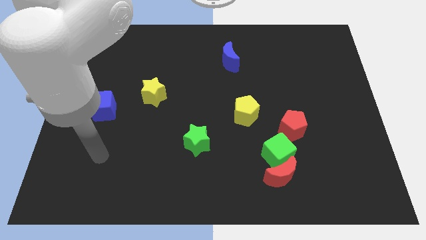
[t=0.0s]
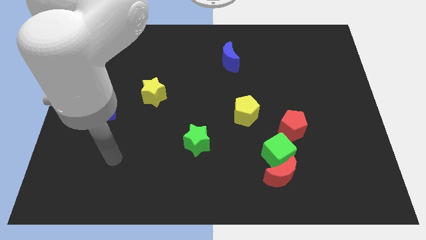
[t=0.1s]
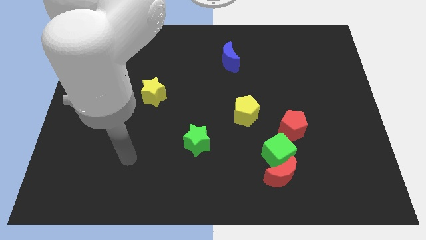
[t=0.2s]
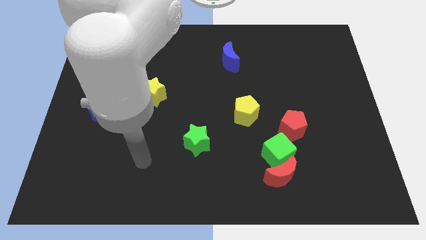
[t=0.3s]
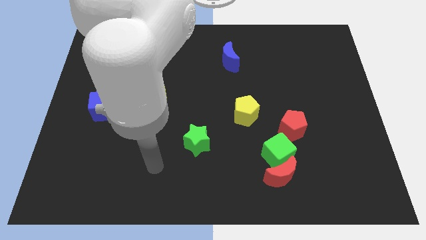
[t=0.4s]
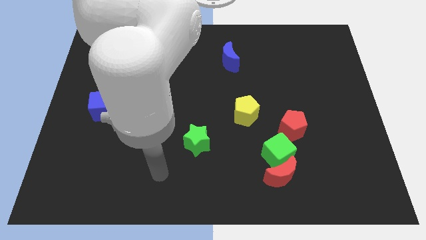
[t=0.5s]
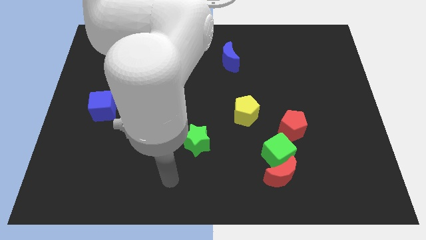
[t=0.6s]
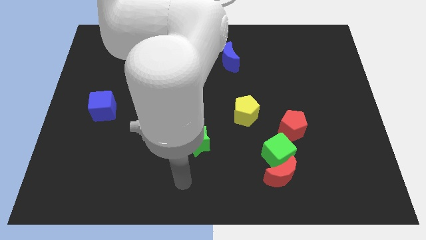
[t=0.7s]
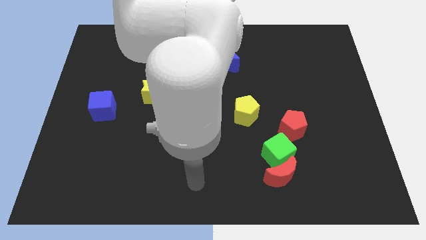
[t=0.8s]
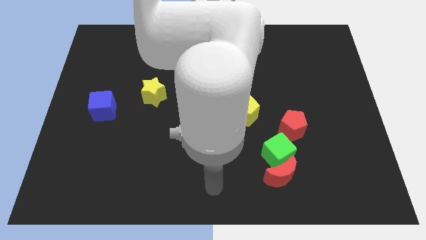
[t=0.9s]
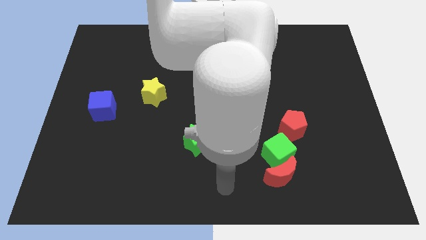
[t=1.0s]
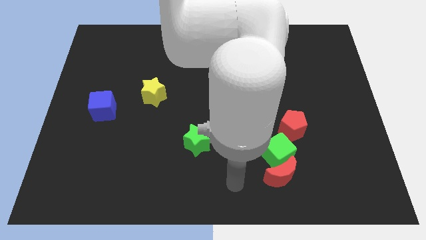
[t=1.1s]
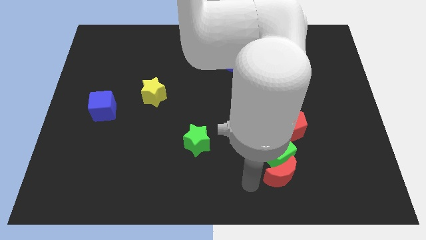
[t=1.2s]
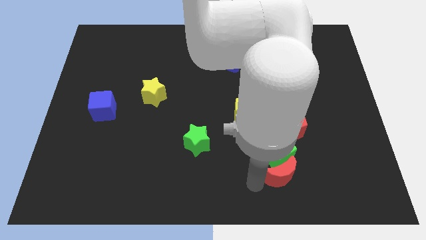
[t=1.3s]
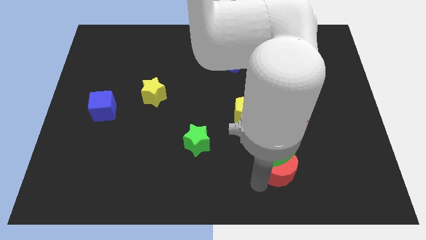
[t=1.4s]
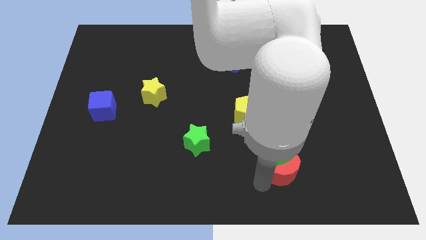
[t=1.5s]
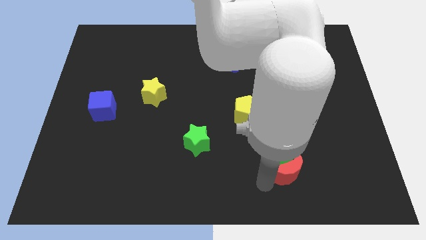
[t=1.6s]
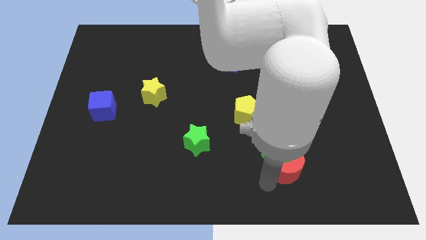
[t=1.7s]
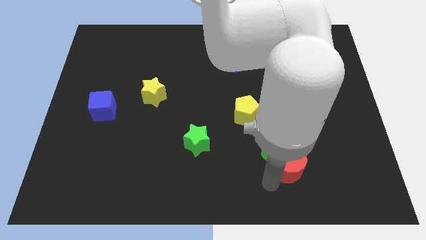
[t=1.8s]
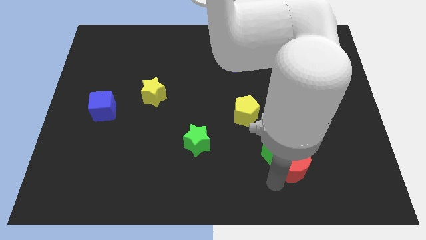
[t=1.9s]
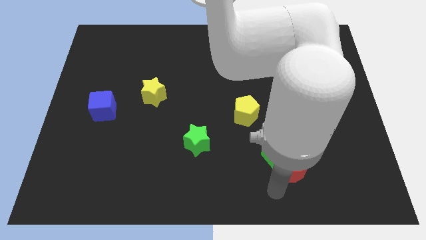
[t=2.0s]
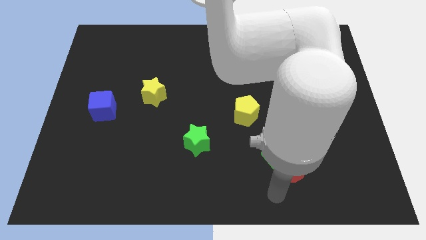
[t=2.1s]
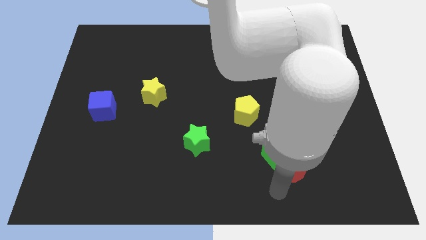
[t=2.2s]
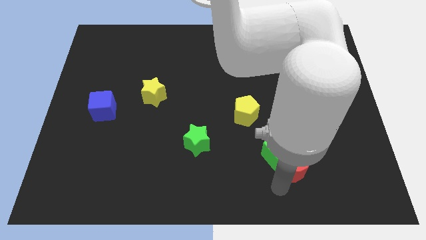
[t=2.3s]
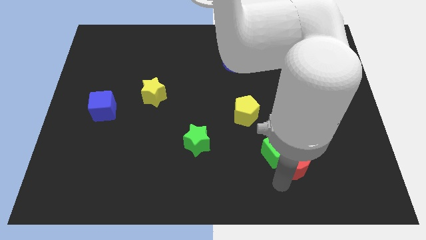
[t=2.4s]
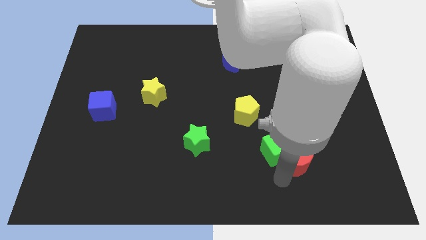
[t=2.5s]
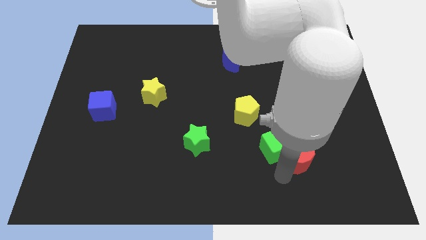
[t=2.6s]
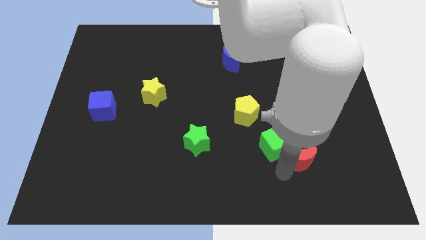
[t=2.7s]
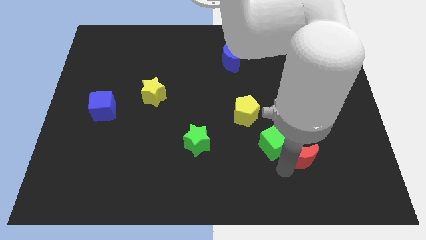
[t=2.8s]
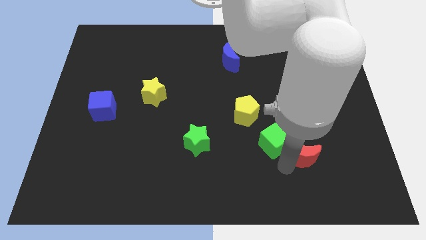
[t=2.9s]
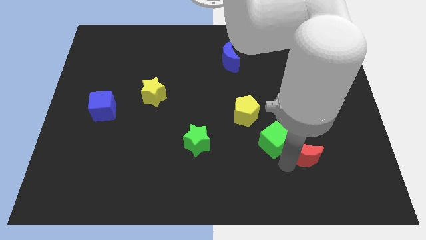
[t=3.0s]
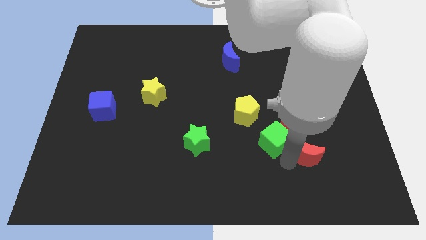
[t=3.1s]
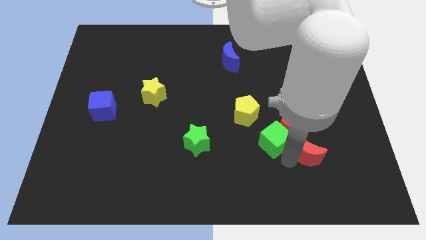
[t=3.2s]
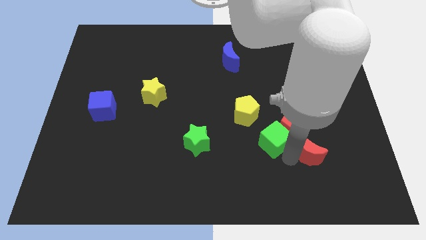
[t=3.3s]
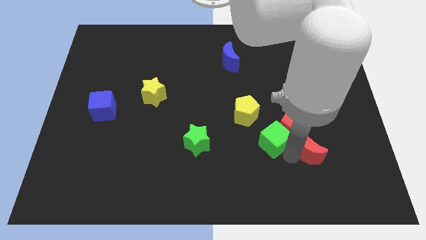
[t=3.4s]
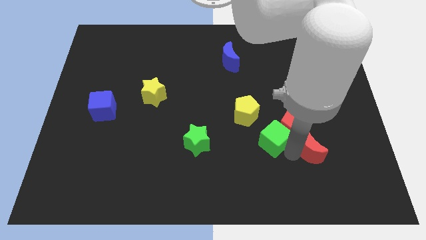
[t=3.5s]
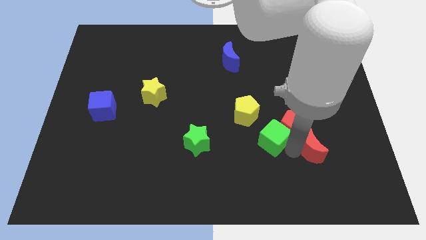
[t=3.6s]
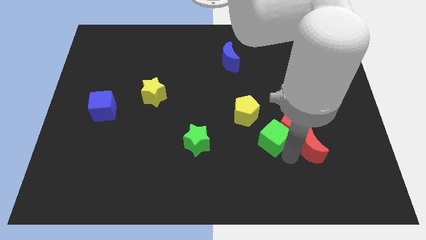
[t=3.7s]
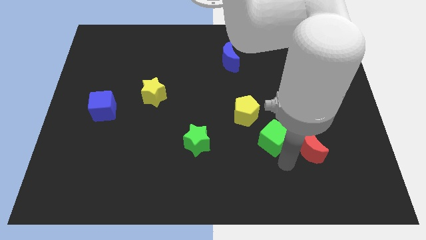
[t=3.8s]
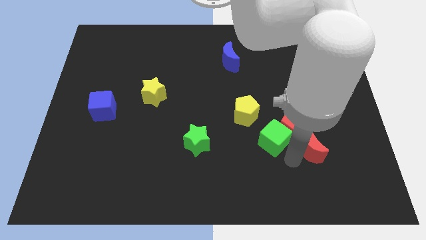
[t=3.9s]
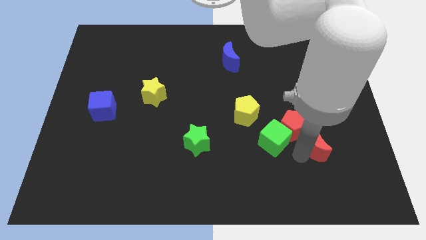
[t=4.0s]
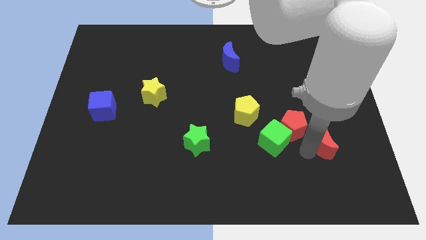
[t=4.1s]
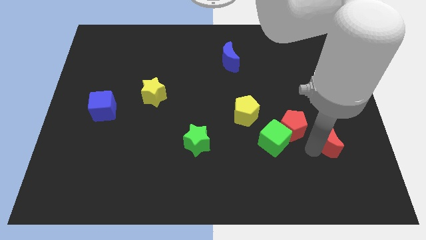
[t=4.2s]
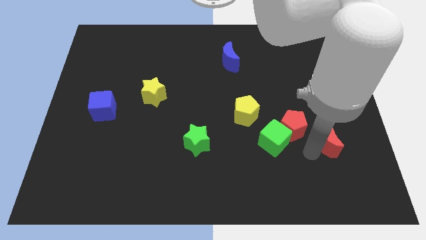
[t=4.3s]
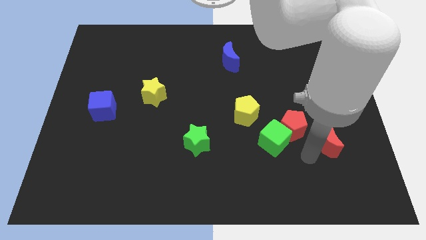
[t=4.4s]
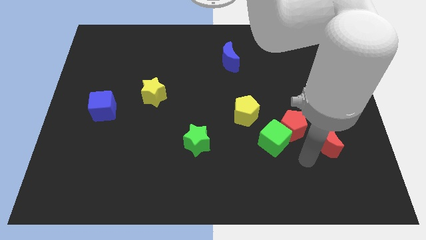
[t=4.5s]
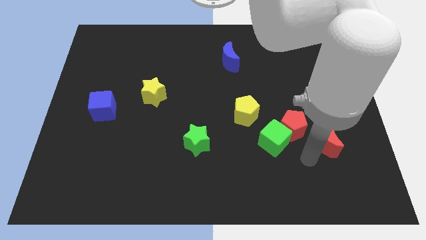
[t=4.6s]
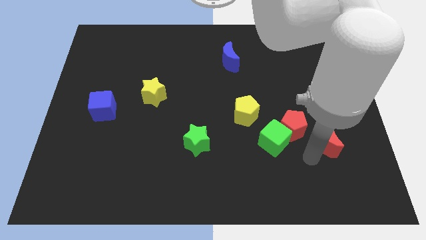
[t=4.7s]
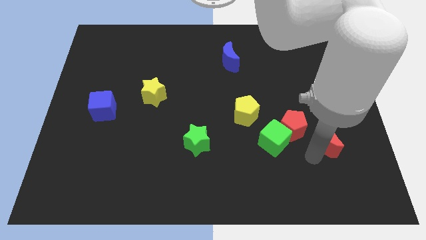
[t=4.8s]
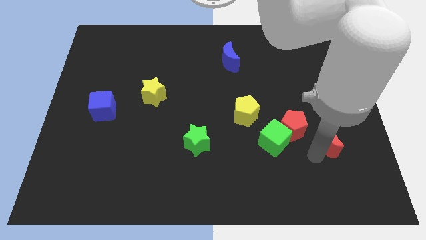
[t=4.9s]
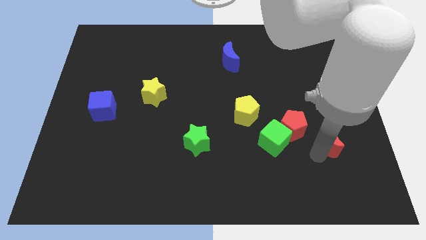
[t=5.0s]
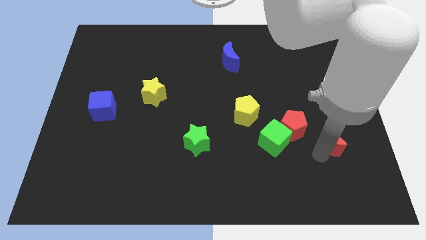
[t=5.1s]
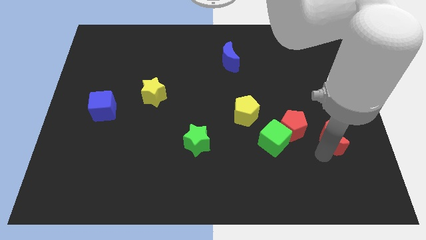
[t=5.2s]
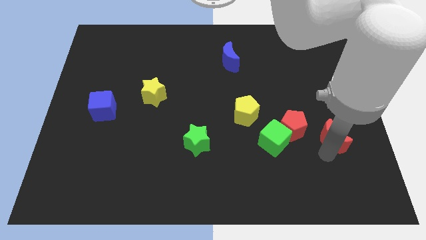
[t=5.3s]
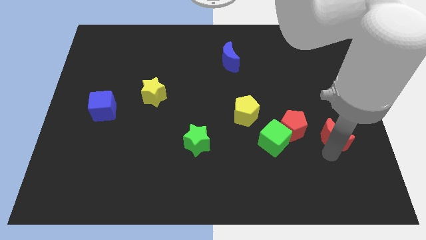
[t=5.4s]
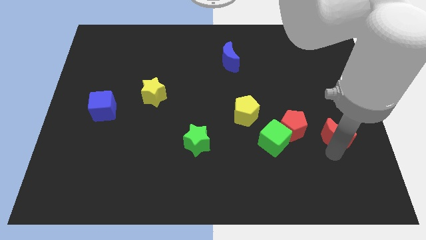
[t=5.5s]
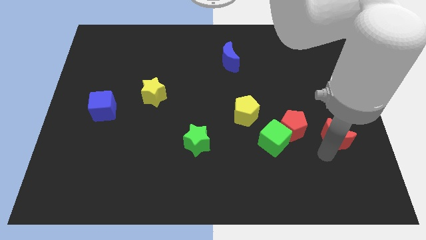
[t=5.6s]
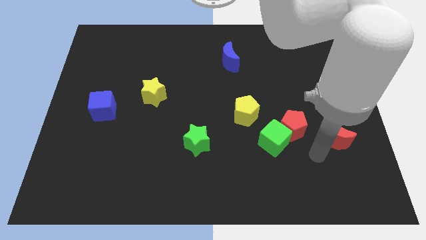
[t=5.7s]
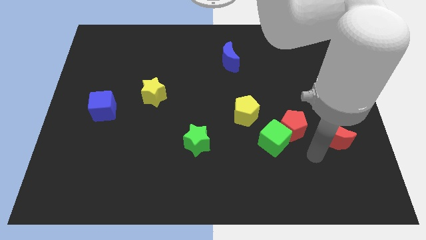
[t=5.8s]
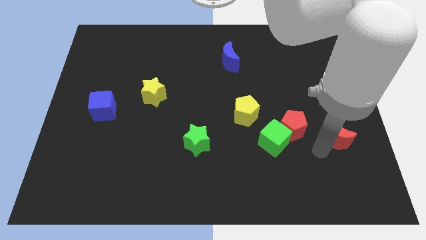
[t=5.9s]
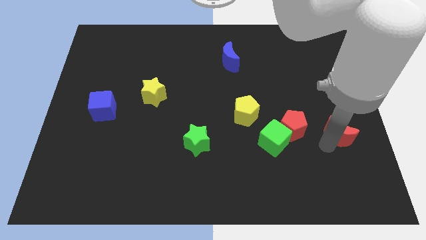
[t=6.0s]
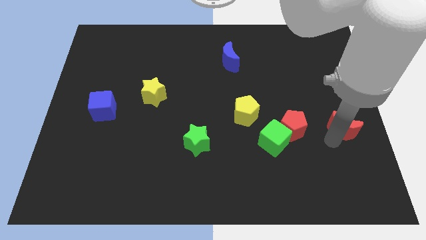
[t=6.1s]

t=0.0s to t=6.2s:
put the red moon to the right side of the board

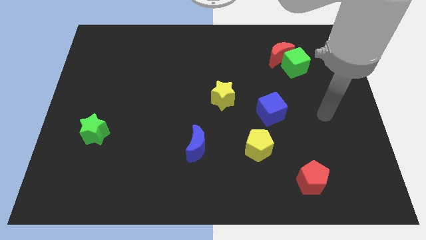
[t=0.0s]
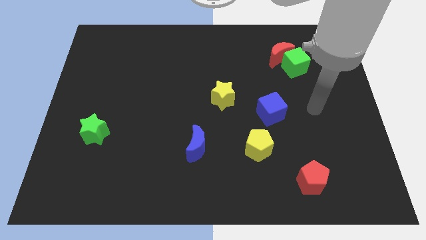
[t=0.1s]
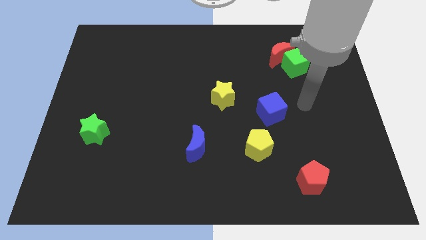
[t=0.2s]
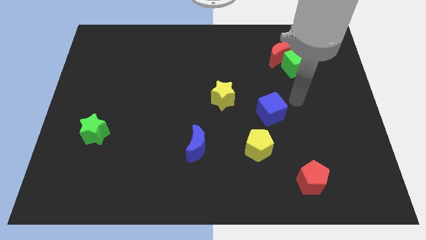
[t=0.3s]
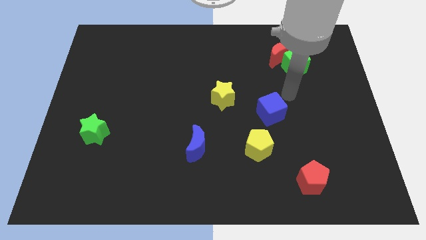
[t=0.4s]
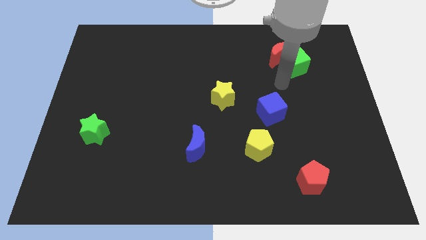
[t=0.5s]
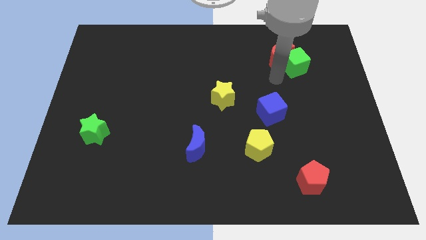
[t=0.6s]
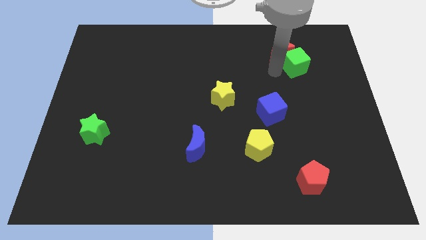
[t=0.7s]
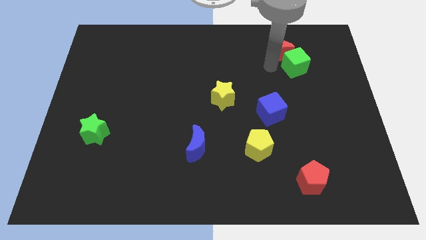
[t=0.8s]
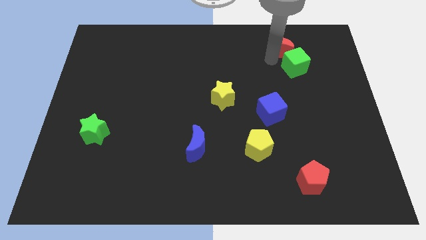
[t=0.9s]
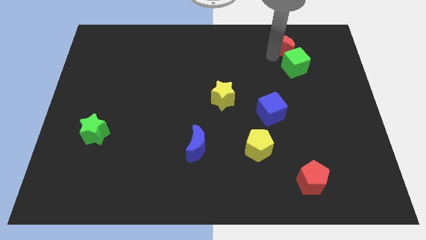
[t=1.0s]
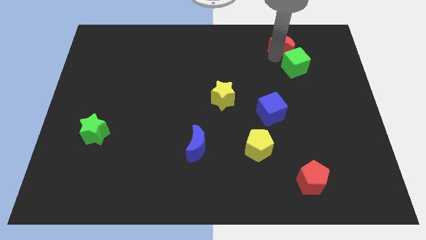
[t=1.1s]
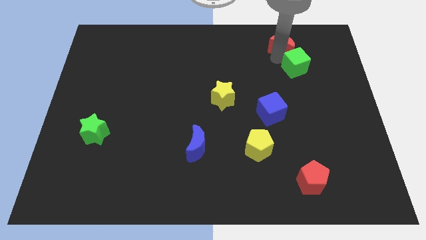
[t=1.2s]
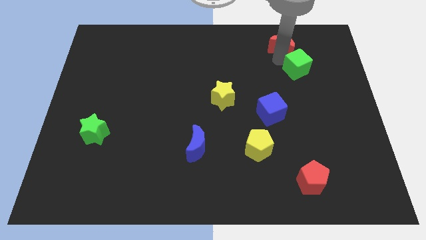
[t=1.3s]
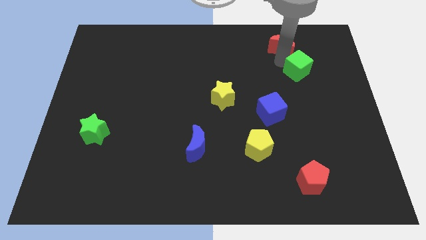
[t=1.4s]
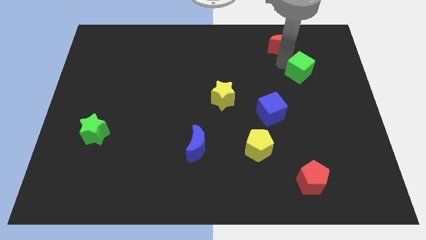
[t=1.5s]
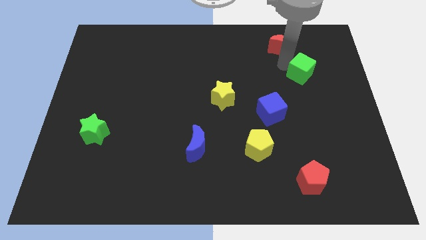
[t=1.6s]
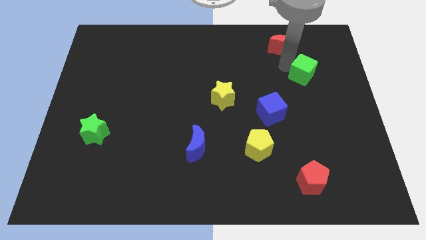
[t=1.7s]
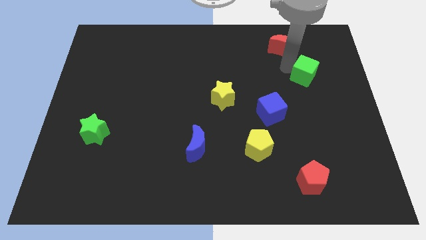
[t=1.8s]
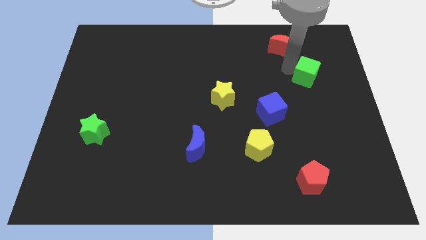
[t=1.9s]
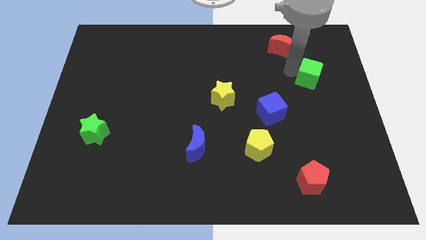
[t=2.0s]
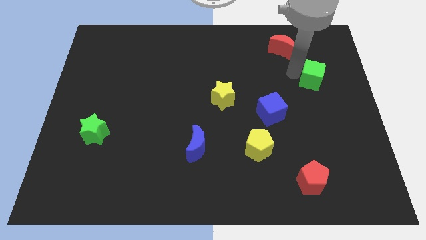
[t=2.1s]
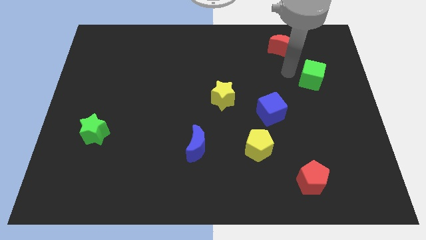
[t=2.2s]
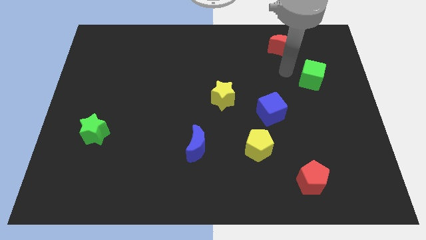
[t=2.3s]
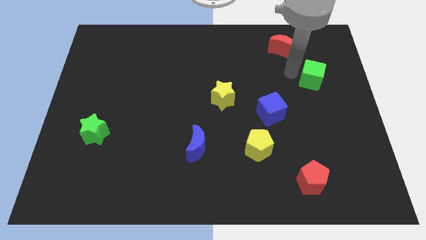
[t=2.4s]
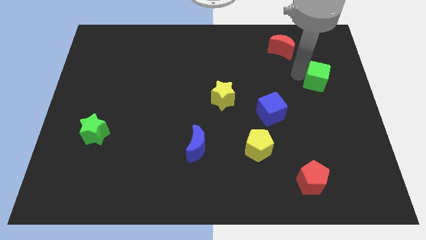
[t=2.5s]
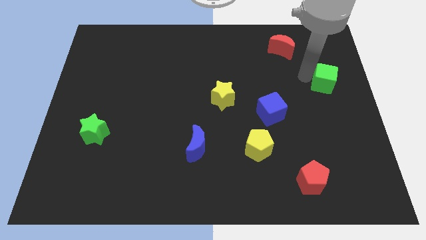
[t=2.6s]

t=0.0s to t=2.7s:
put the green cube to the right side
